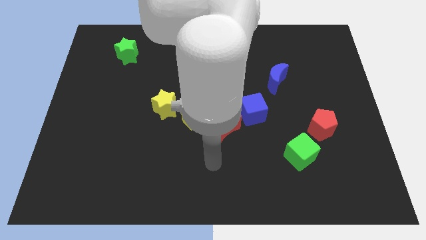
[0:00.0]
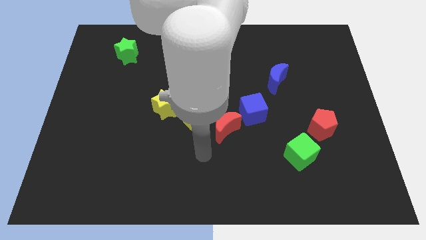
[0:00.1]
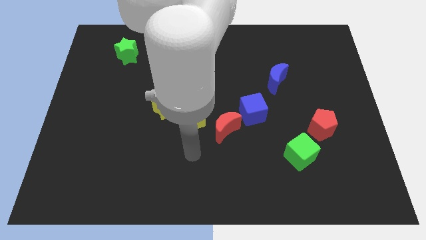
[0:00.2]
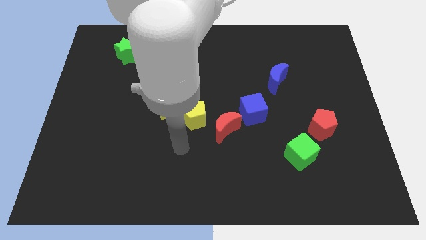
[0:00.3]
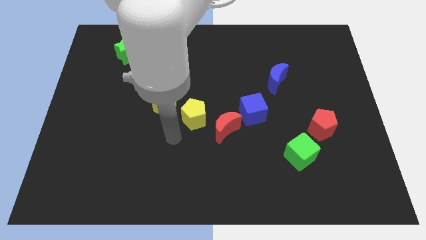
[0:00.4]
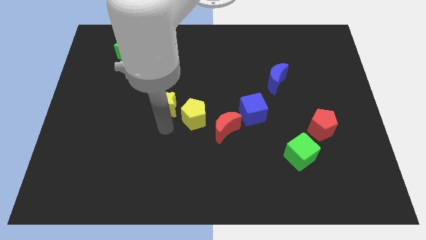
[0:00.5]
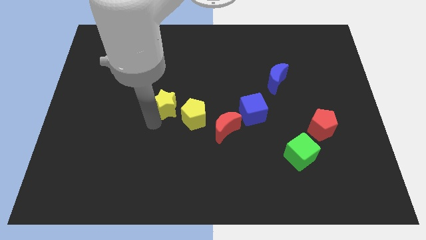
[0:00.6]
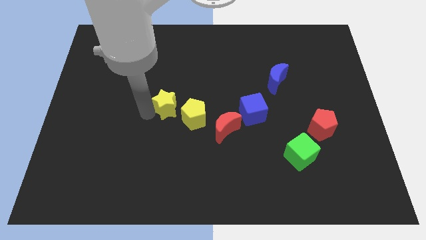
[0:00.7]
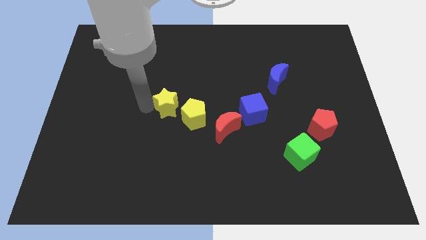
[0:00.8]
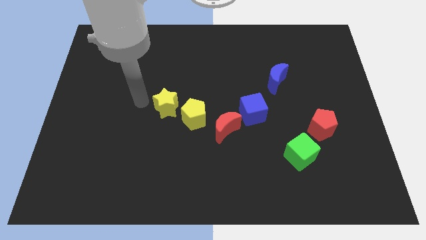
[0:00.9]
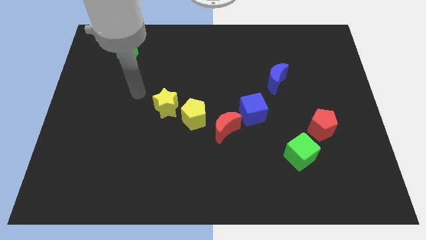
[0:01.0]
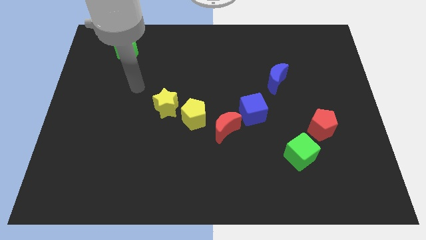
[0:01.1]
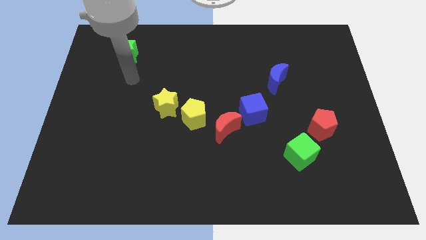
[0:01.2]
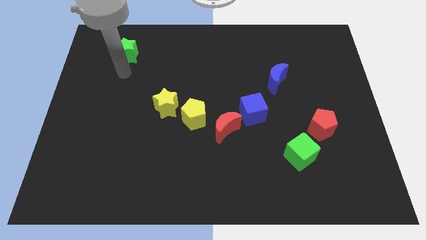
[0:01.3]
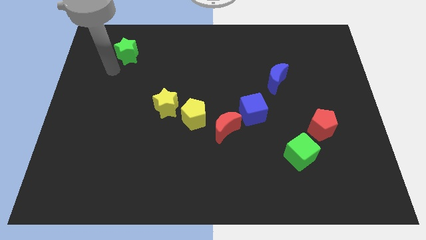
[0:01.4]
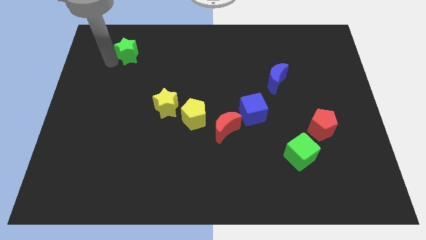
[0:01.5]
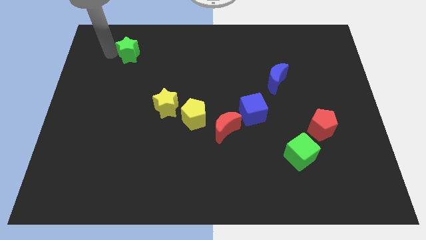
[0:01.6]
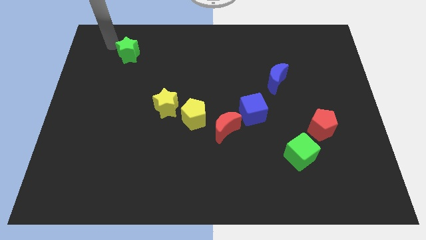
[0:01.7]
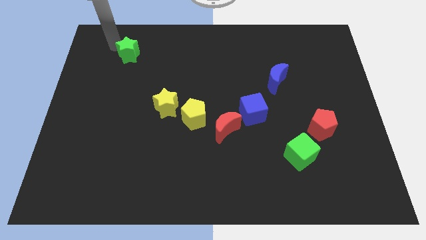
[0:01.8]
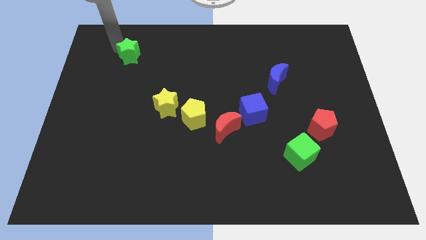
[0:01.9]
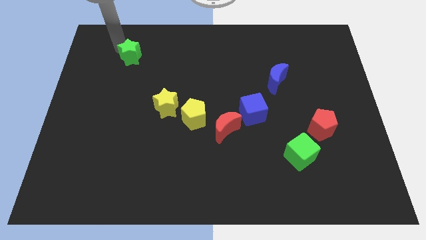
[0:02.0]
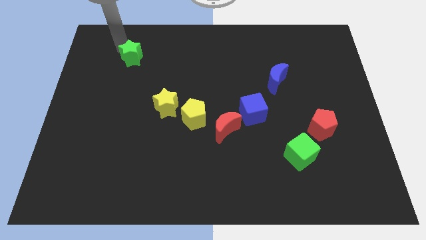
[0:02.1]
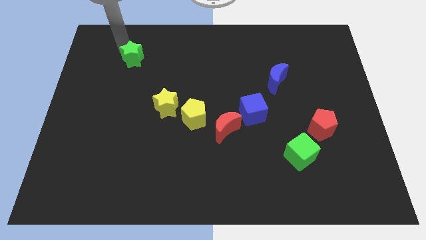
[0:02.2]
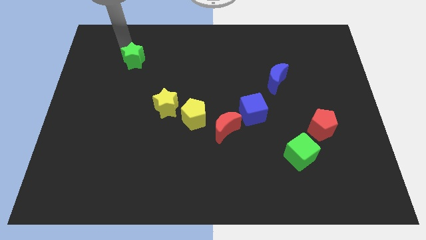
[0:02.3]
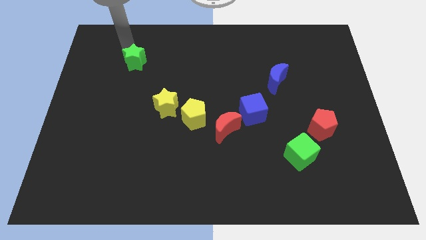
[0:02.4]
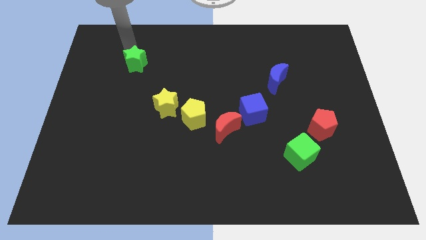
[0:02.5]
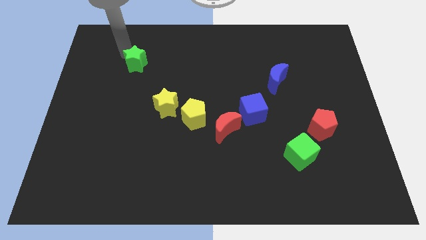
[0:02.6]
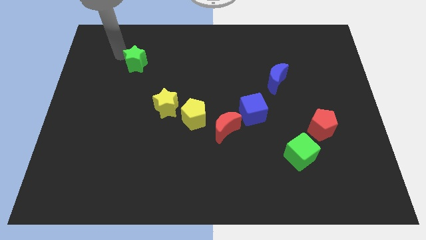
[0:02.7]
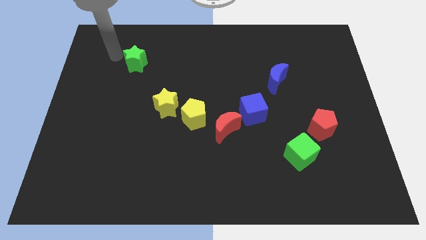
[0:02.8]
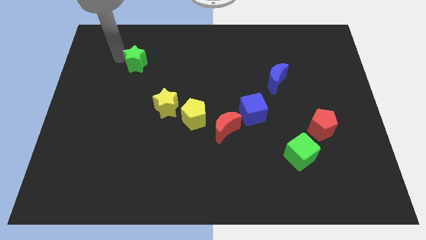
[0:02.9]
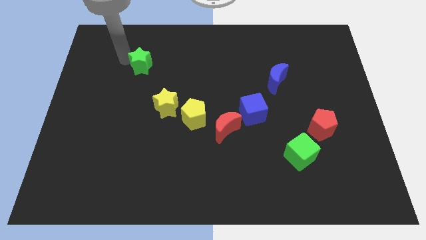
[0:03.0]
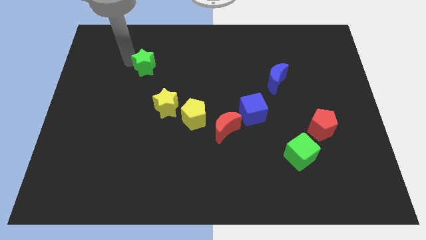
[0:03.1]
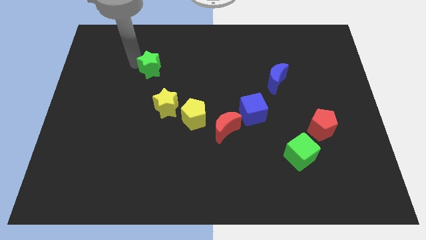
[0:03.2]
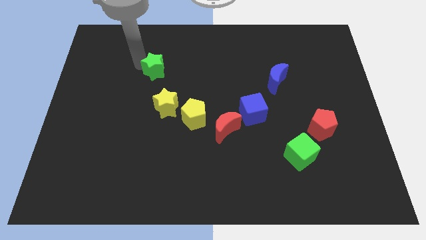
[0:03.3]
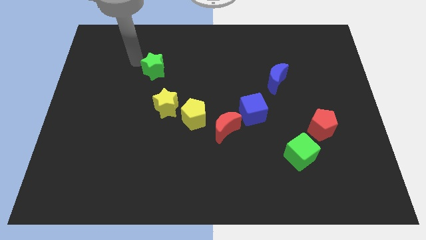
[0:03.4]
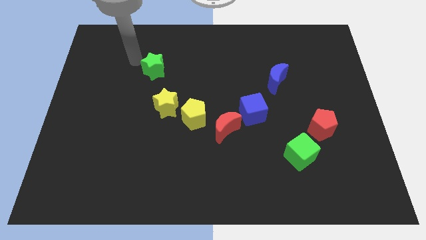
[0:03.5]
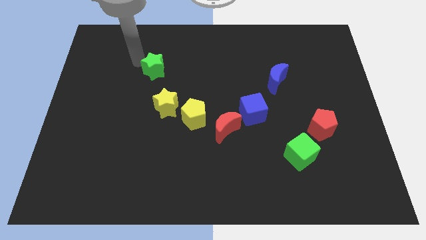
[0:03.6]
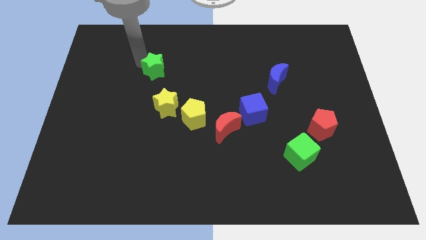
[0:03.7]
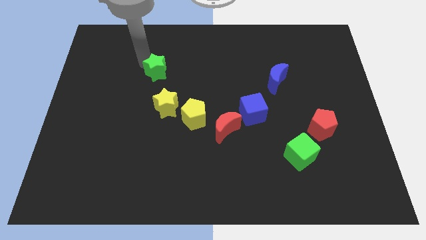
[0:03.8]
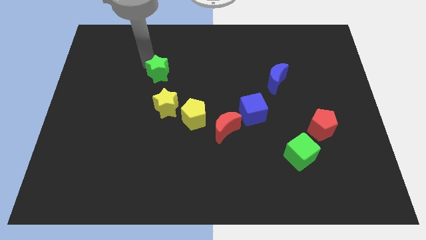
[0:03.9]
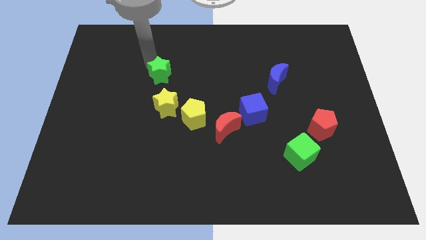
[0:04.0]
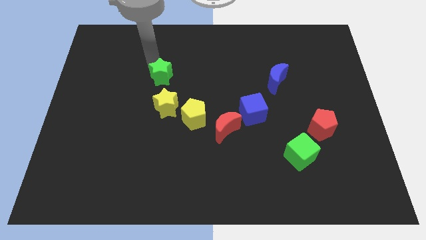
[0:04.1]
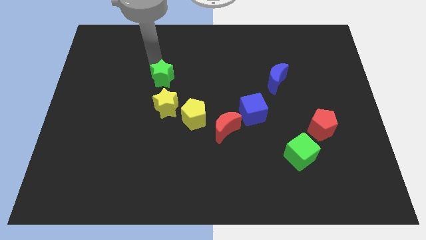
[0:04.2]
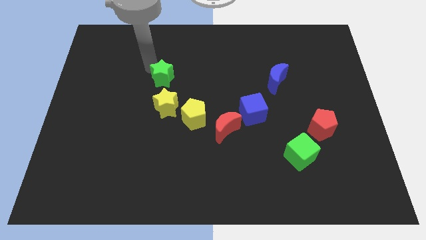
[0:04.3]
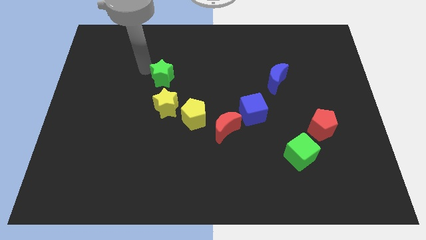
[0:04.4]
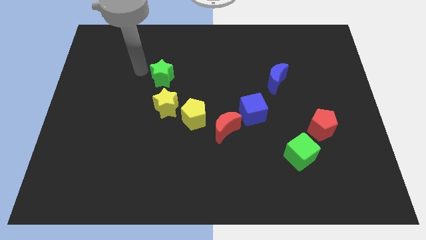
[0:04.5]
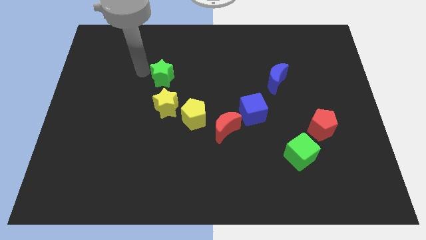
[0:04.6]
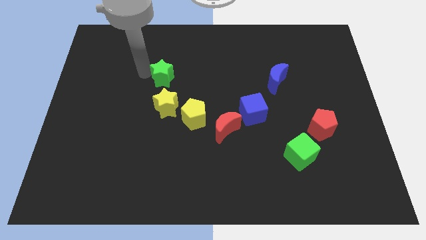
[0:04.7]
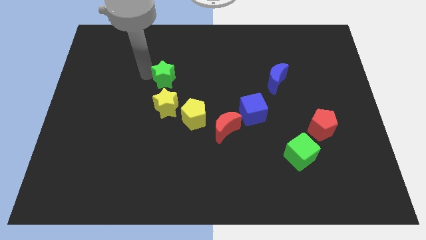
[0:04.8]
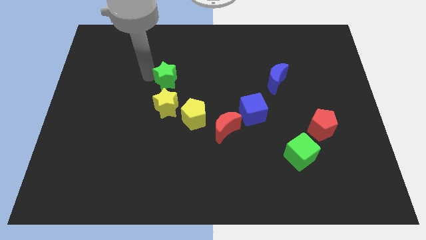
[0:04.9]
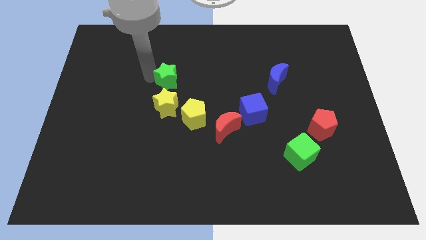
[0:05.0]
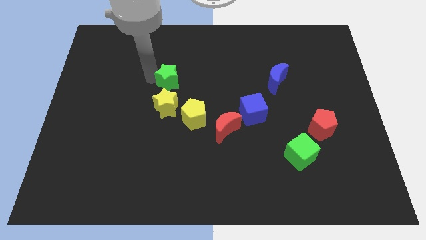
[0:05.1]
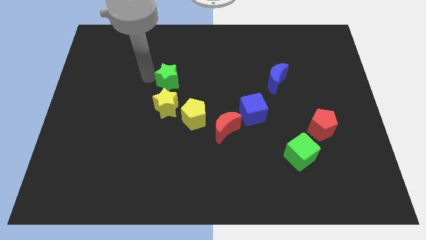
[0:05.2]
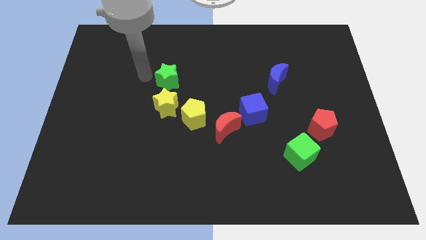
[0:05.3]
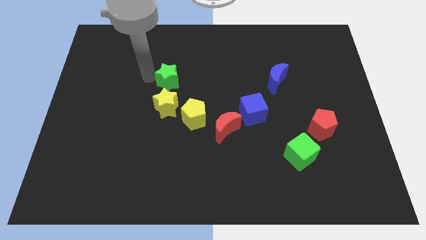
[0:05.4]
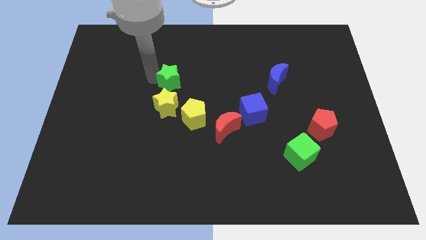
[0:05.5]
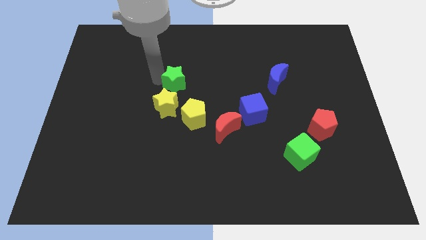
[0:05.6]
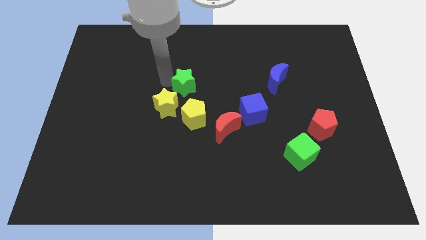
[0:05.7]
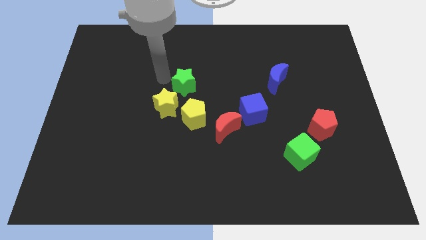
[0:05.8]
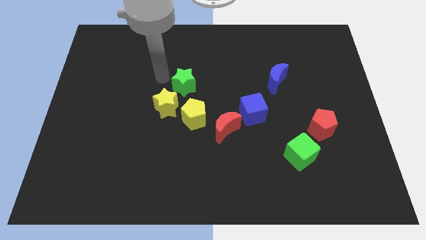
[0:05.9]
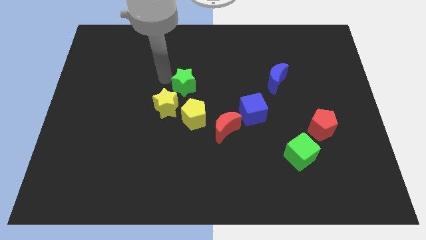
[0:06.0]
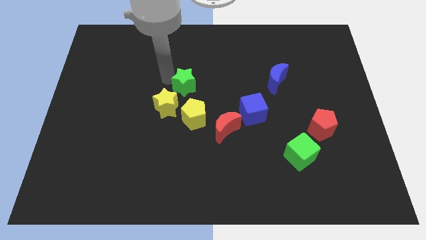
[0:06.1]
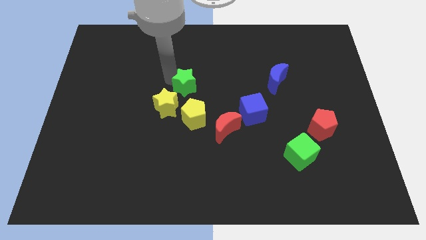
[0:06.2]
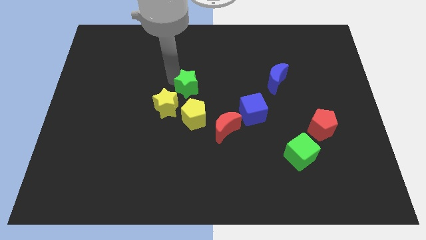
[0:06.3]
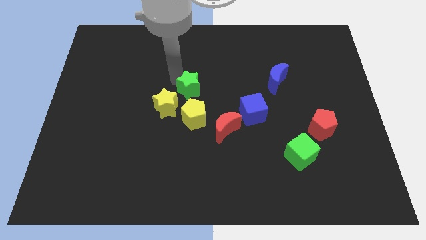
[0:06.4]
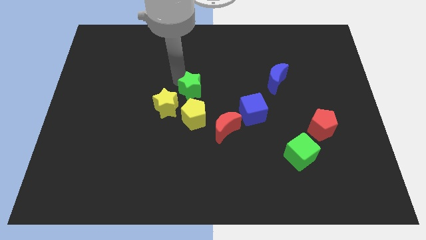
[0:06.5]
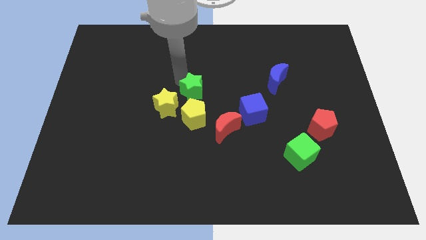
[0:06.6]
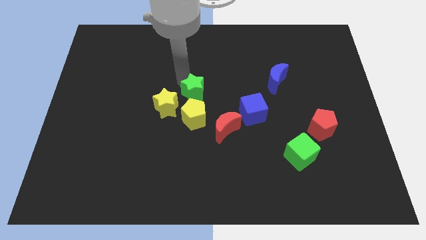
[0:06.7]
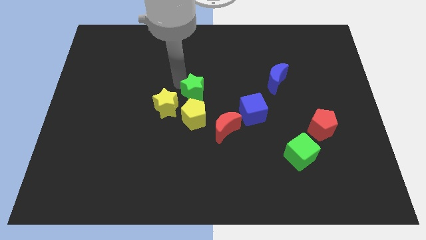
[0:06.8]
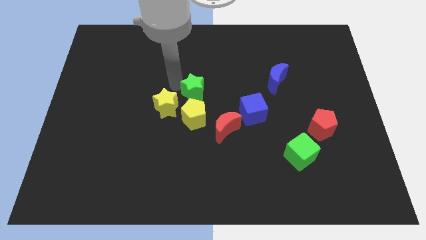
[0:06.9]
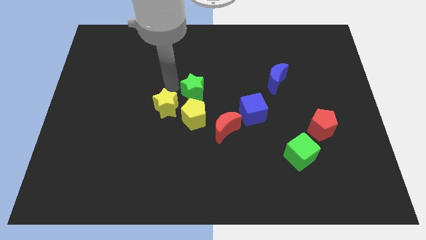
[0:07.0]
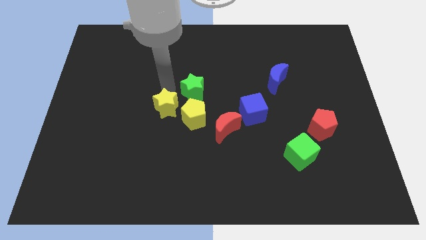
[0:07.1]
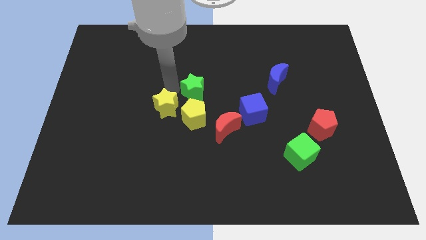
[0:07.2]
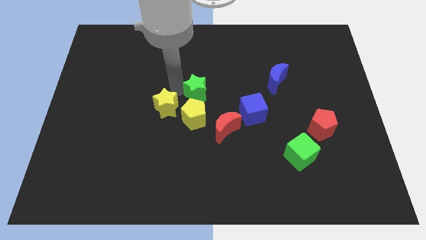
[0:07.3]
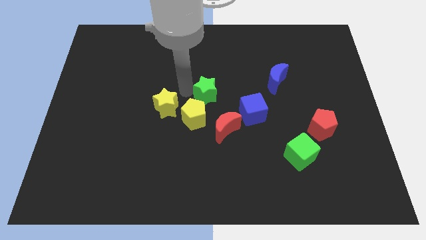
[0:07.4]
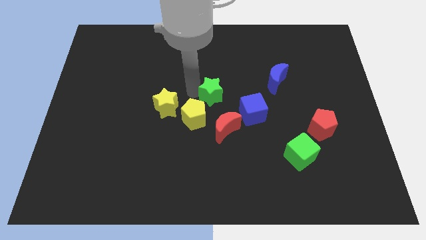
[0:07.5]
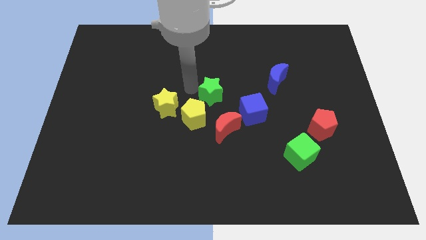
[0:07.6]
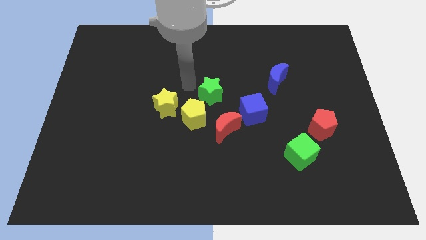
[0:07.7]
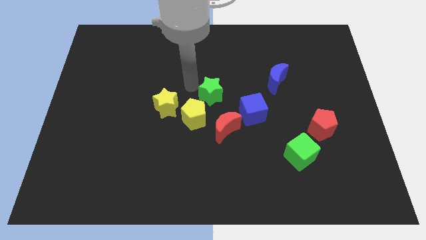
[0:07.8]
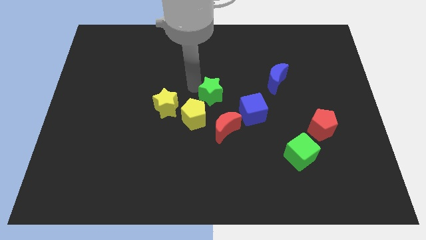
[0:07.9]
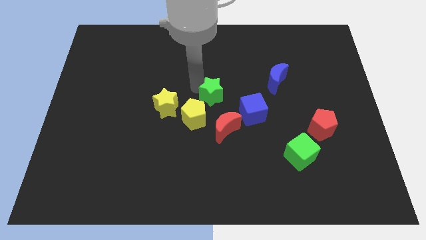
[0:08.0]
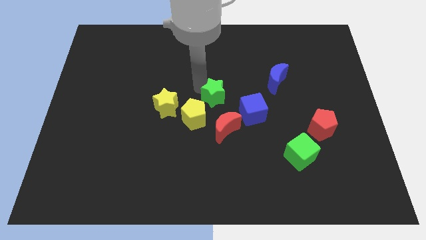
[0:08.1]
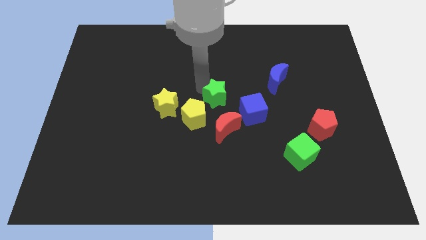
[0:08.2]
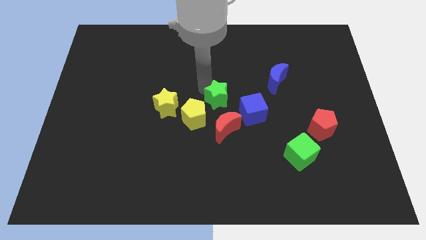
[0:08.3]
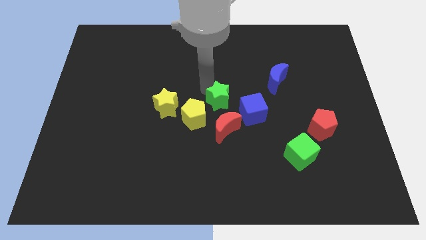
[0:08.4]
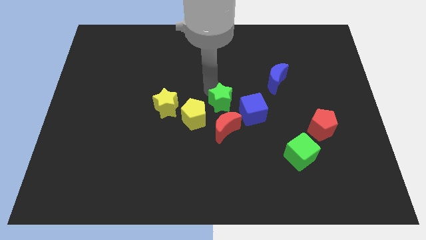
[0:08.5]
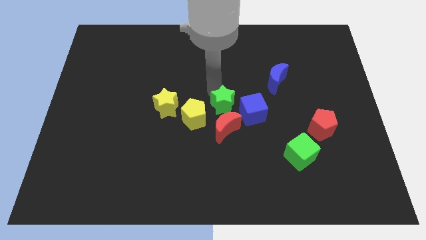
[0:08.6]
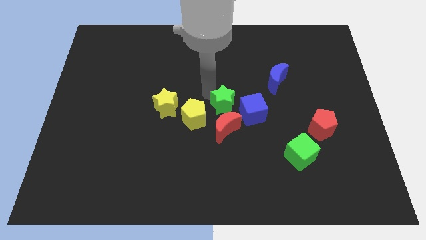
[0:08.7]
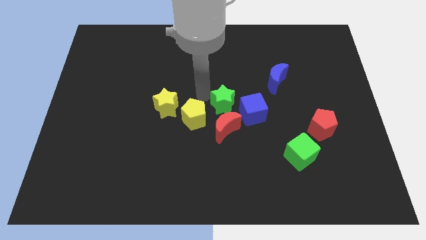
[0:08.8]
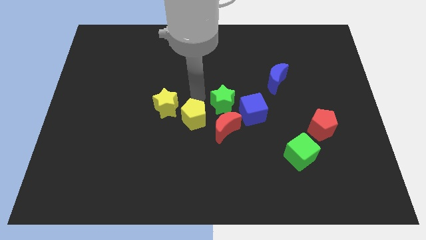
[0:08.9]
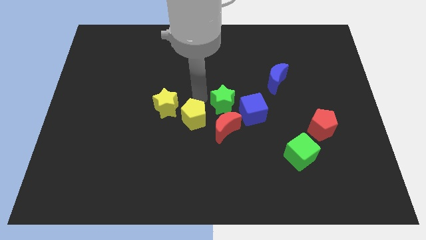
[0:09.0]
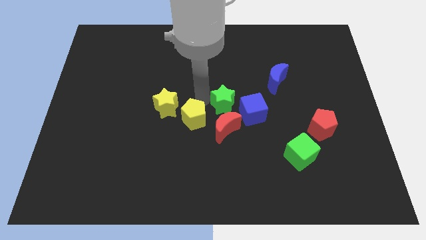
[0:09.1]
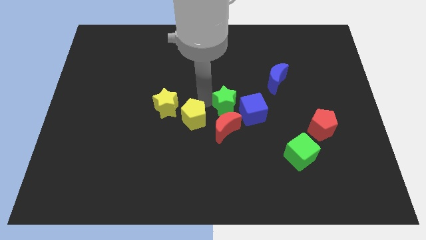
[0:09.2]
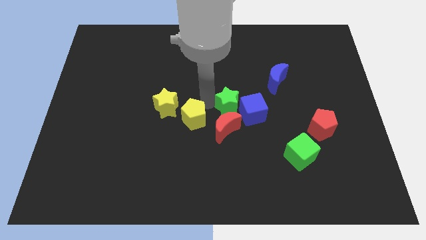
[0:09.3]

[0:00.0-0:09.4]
push the green star close to the blue cube
